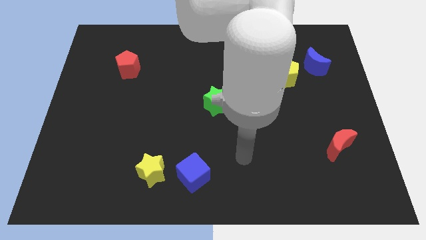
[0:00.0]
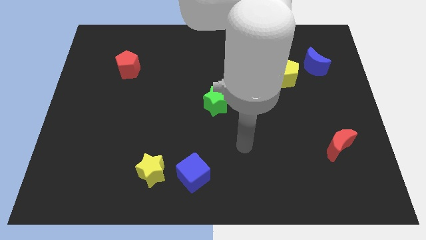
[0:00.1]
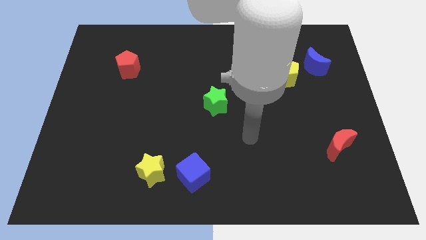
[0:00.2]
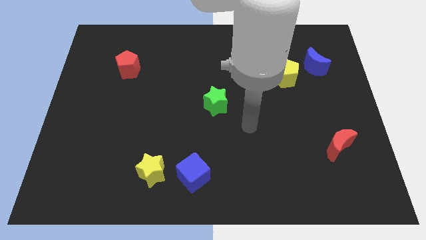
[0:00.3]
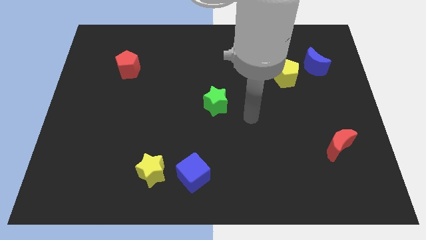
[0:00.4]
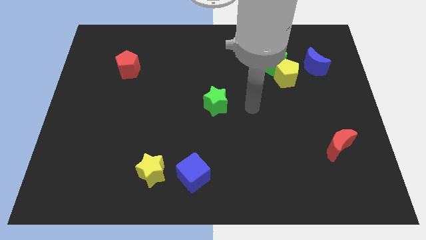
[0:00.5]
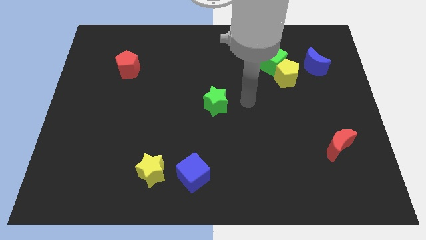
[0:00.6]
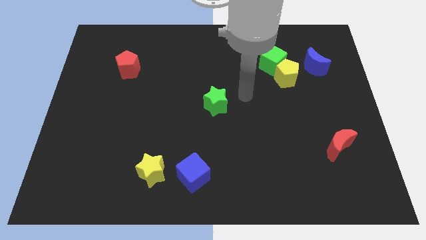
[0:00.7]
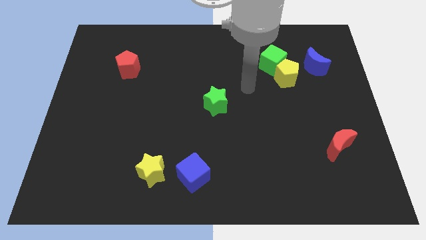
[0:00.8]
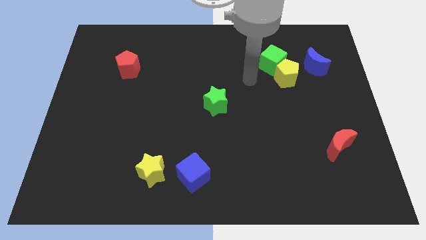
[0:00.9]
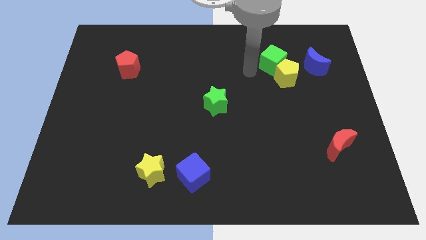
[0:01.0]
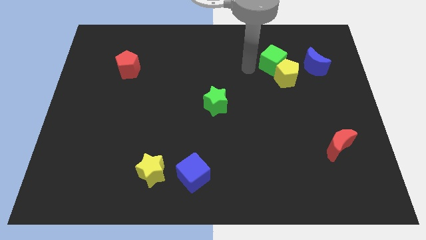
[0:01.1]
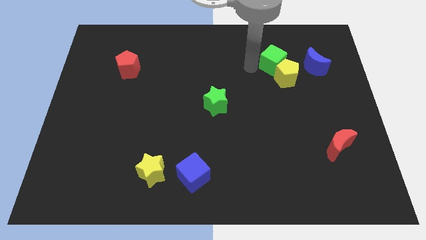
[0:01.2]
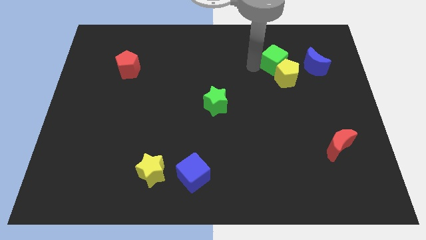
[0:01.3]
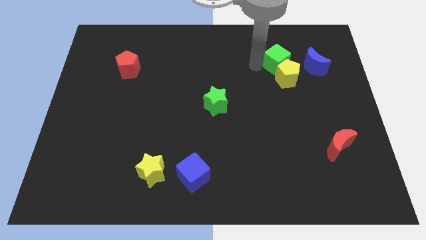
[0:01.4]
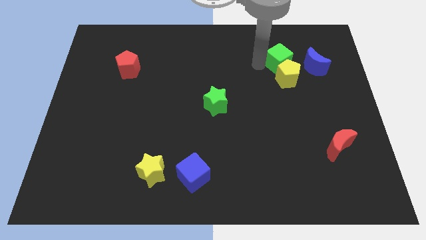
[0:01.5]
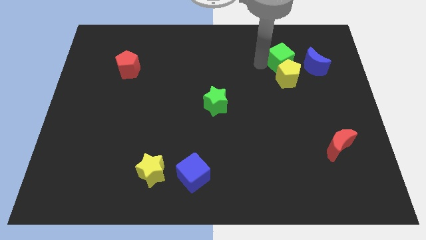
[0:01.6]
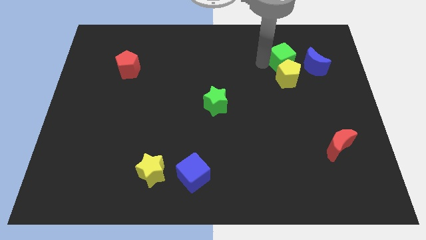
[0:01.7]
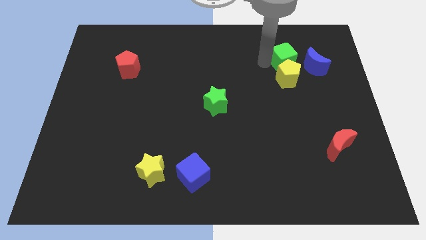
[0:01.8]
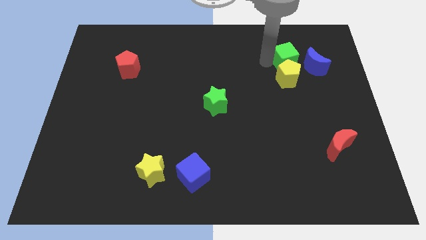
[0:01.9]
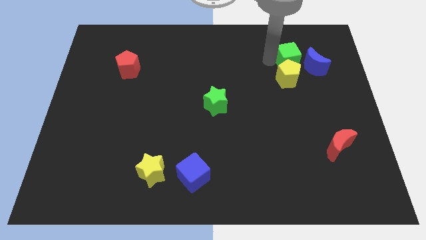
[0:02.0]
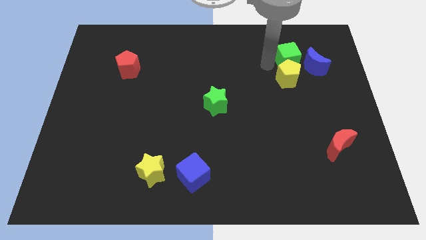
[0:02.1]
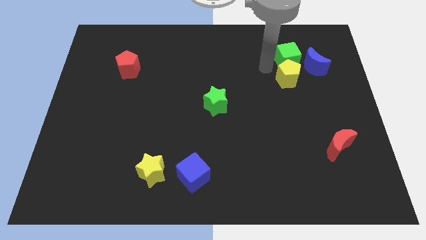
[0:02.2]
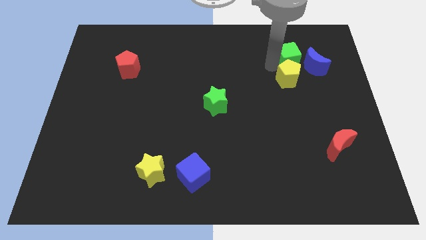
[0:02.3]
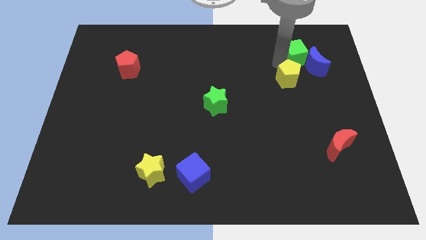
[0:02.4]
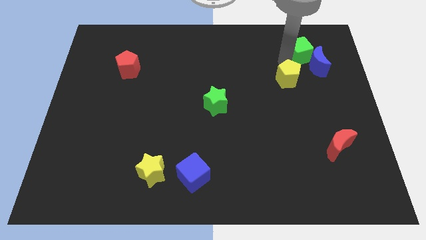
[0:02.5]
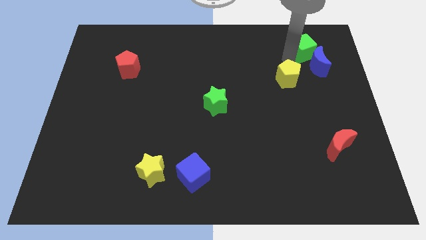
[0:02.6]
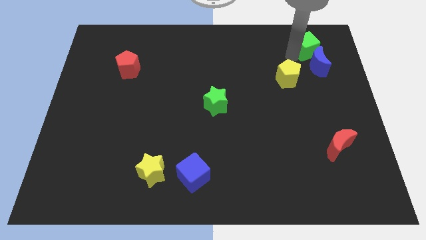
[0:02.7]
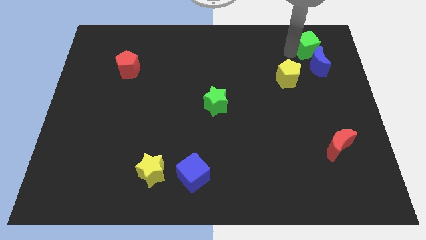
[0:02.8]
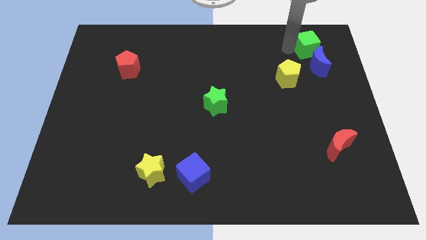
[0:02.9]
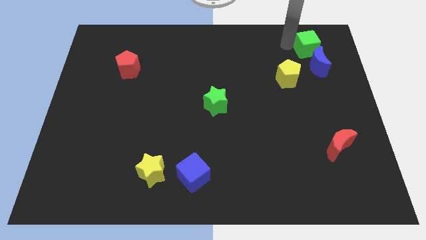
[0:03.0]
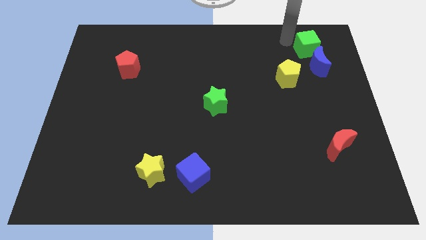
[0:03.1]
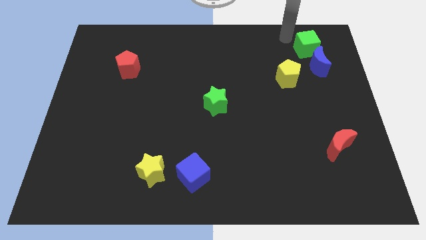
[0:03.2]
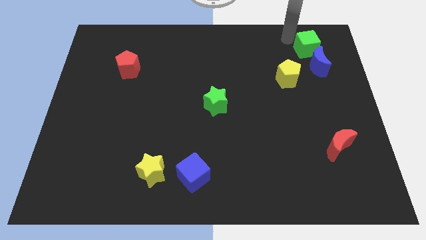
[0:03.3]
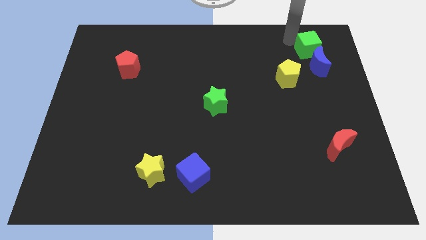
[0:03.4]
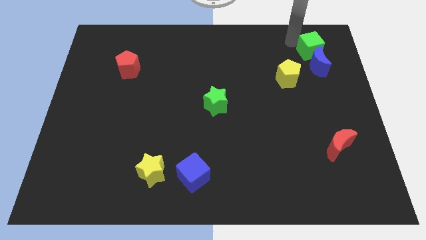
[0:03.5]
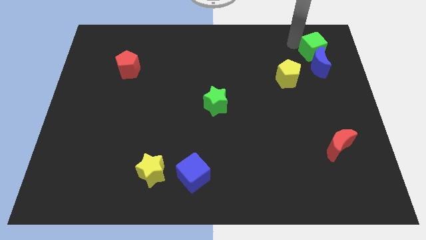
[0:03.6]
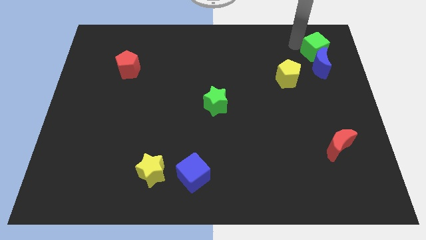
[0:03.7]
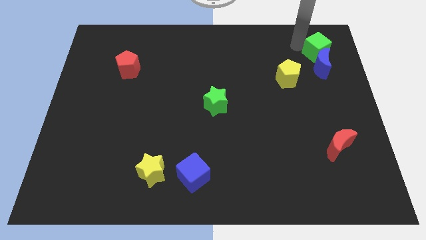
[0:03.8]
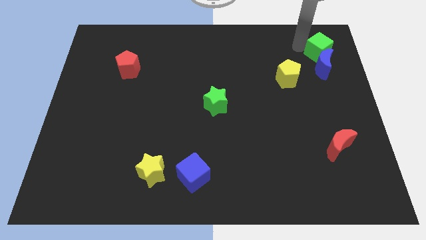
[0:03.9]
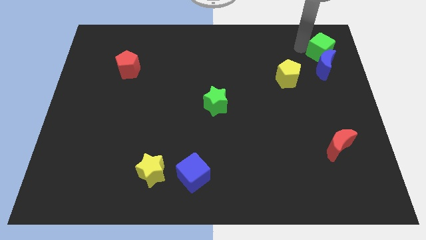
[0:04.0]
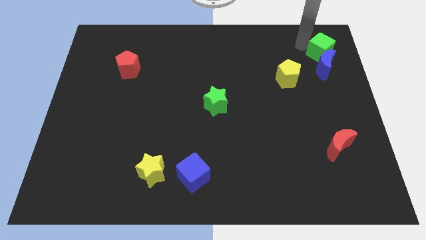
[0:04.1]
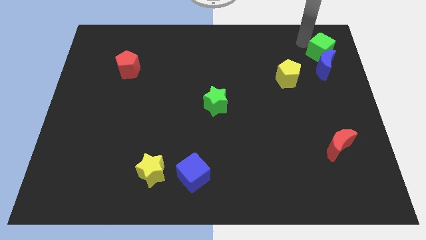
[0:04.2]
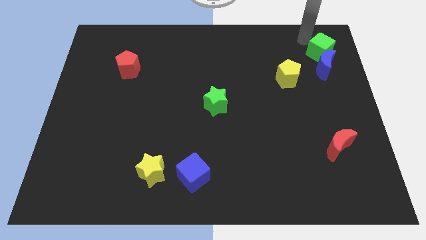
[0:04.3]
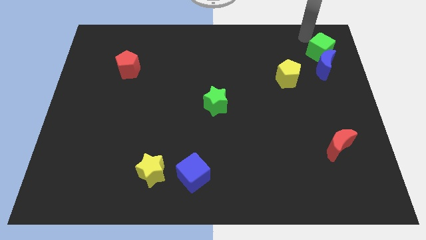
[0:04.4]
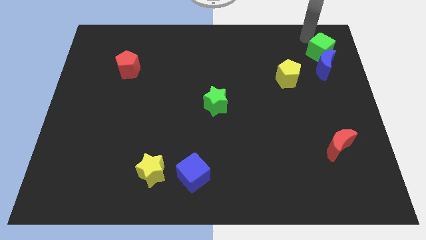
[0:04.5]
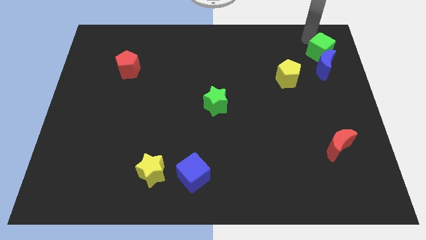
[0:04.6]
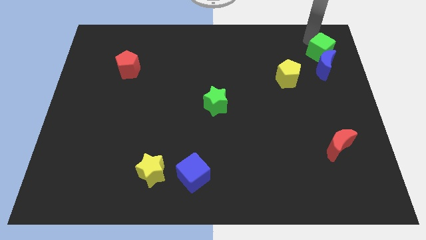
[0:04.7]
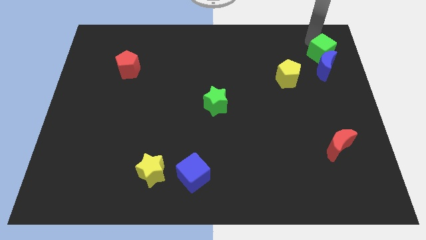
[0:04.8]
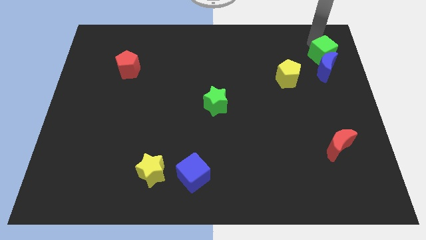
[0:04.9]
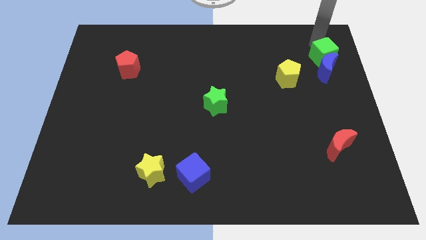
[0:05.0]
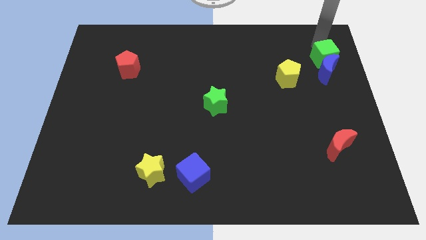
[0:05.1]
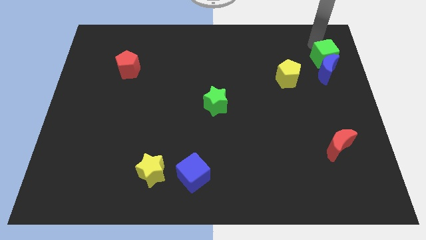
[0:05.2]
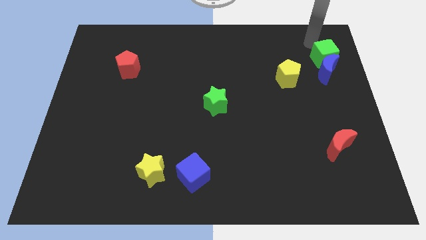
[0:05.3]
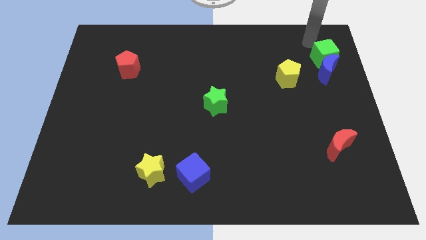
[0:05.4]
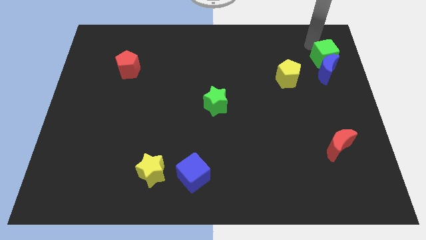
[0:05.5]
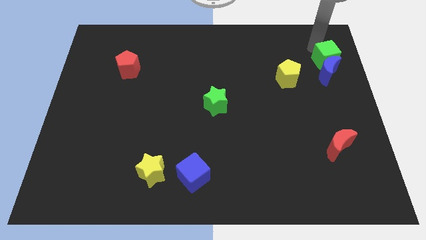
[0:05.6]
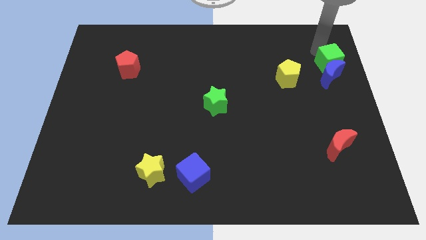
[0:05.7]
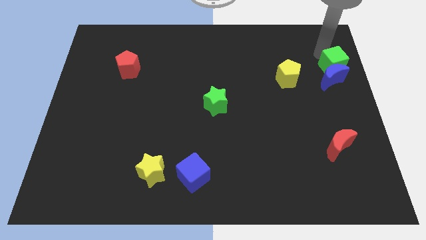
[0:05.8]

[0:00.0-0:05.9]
put the green cube to the center right

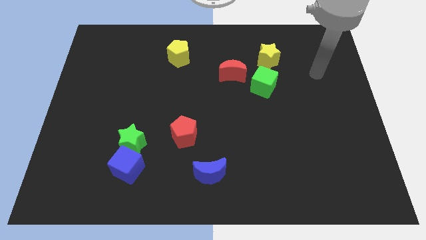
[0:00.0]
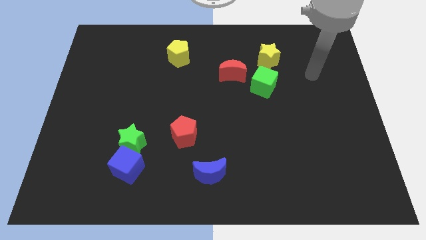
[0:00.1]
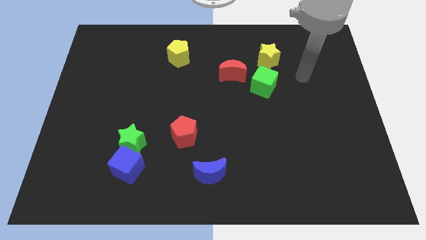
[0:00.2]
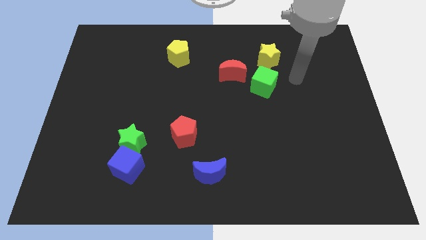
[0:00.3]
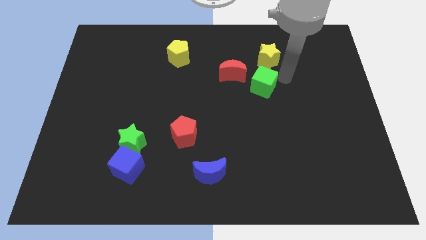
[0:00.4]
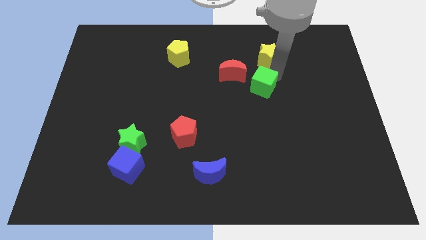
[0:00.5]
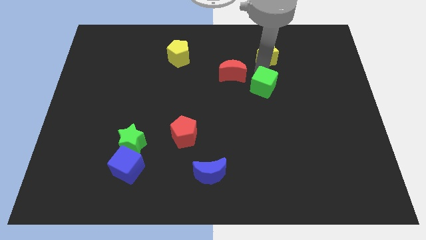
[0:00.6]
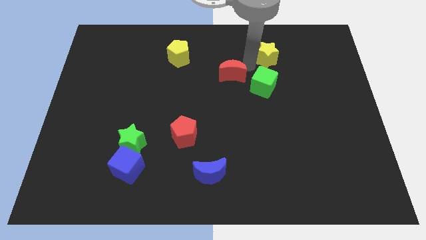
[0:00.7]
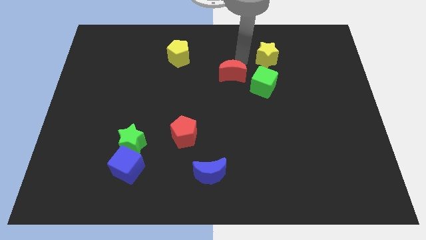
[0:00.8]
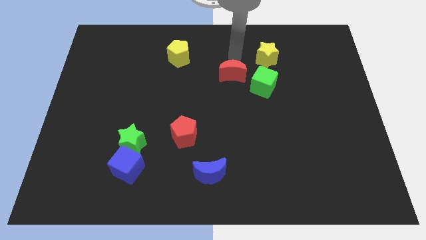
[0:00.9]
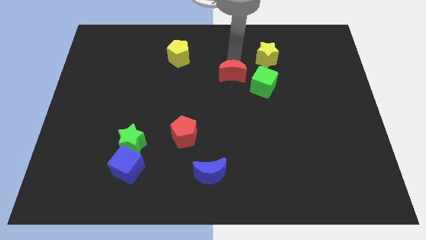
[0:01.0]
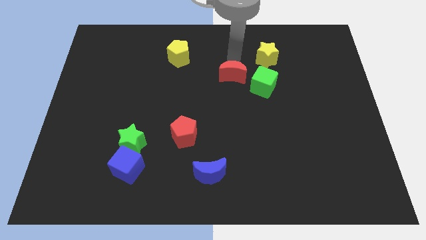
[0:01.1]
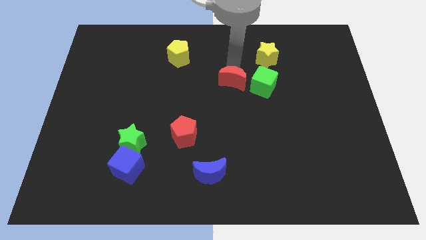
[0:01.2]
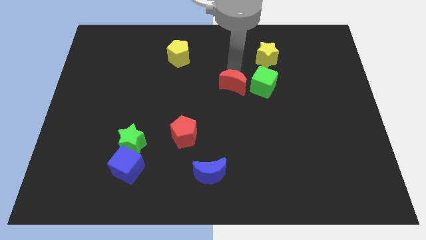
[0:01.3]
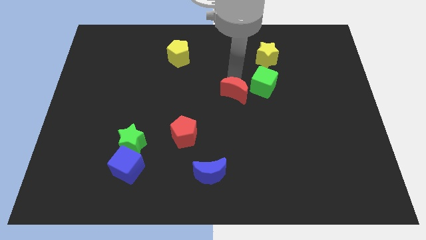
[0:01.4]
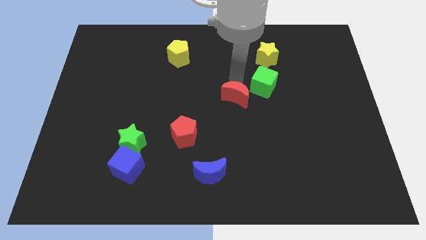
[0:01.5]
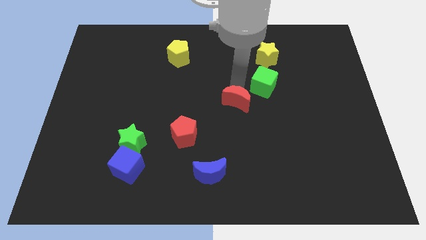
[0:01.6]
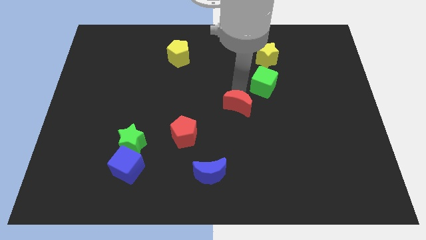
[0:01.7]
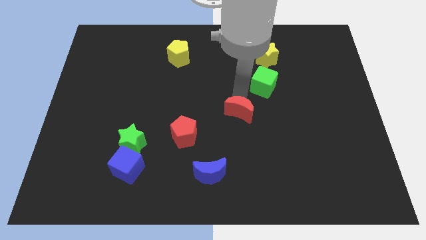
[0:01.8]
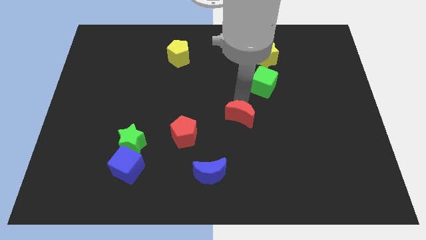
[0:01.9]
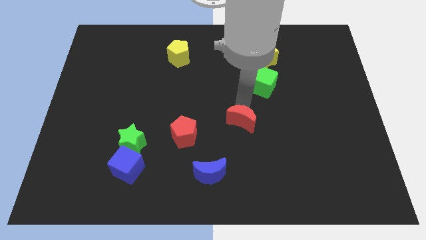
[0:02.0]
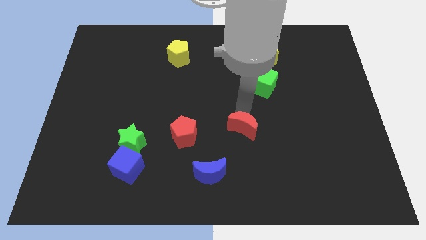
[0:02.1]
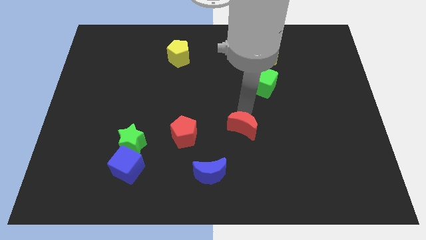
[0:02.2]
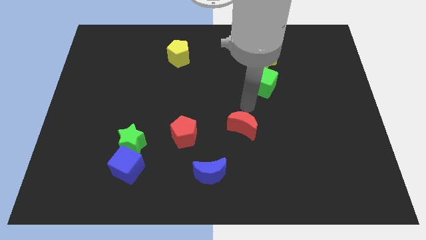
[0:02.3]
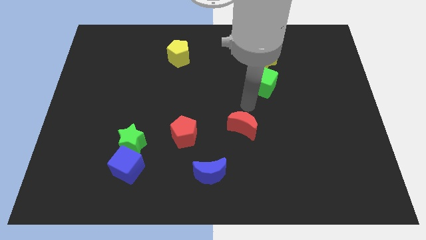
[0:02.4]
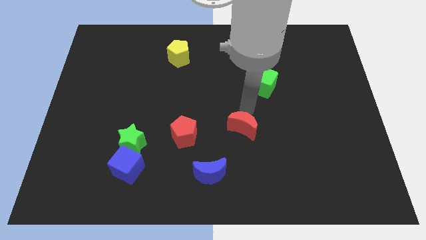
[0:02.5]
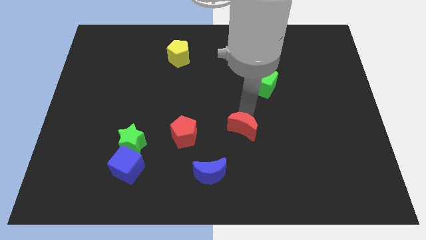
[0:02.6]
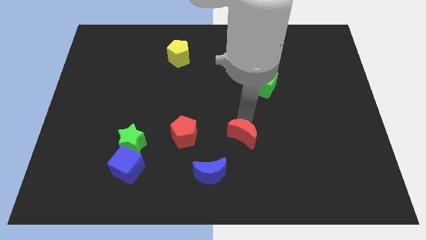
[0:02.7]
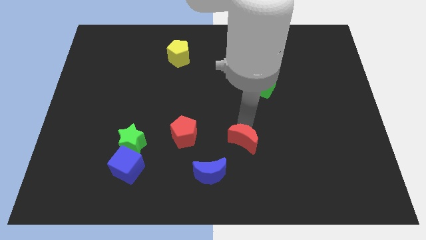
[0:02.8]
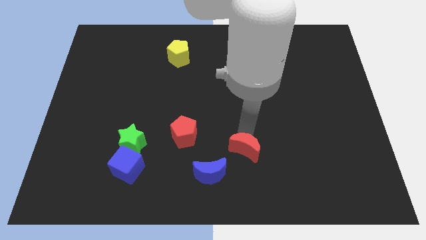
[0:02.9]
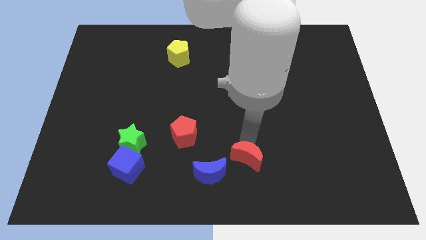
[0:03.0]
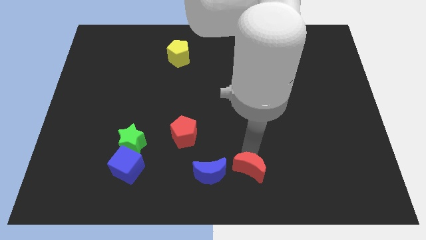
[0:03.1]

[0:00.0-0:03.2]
put the red moon to the bottom
